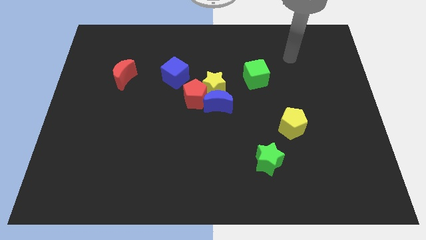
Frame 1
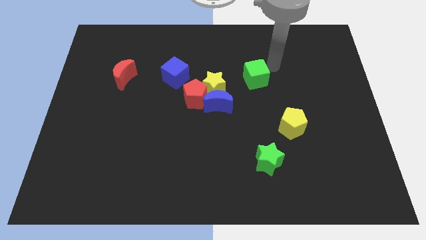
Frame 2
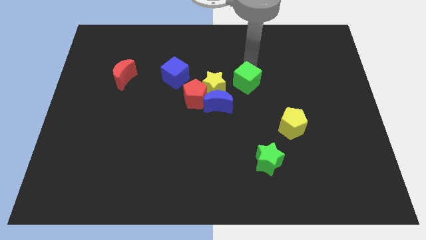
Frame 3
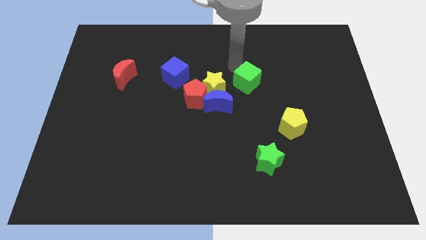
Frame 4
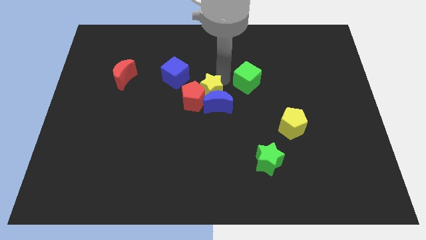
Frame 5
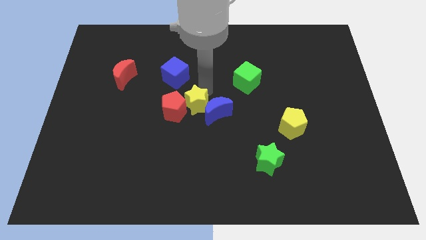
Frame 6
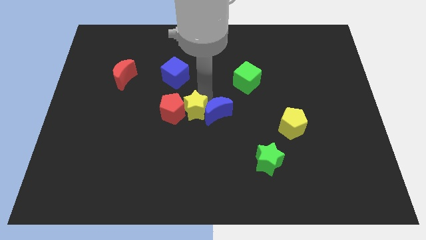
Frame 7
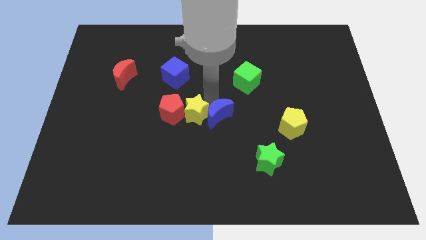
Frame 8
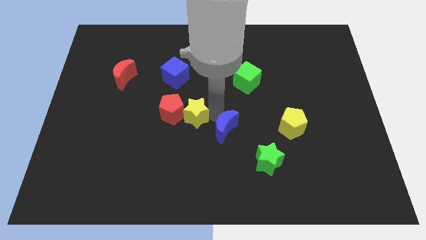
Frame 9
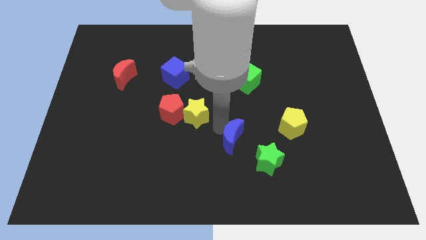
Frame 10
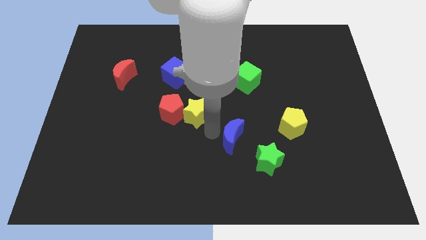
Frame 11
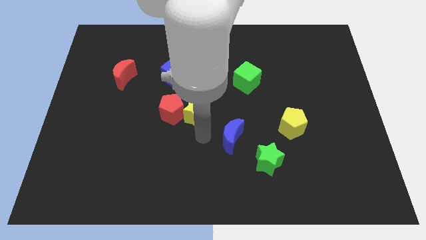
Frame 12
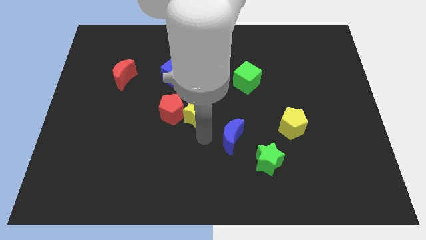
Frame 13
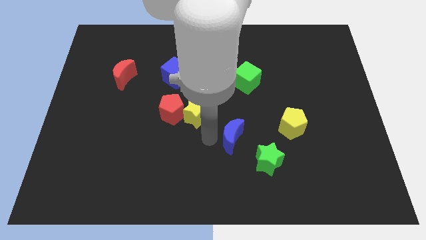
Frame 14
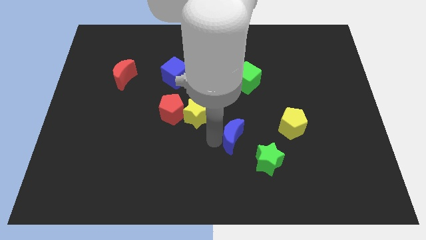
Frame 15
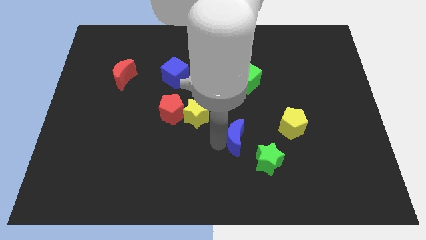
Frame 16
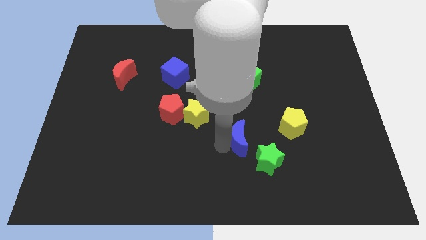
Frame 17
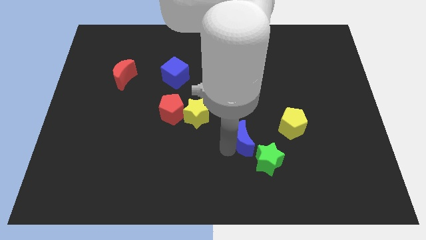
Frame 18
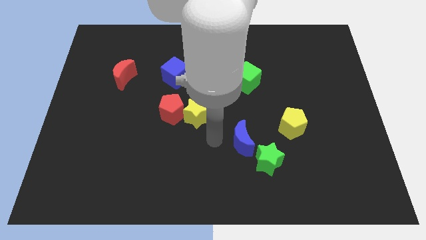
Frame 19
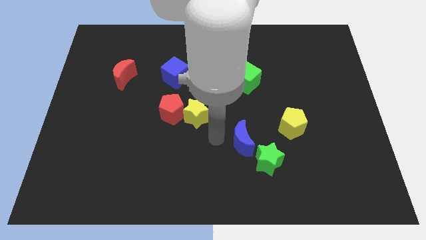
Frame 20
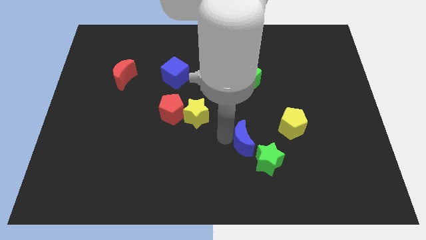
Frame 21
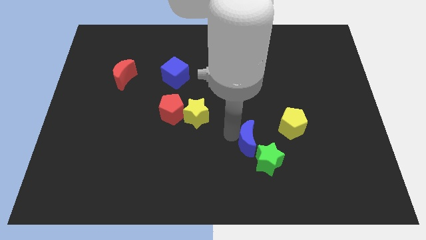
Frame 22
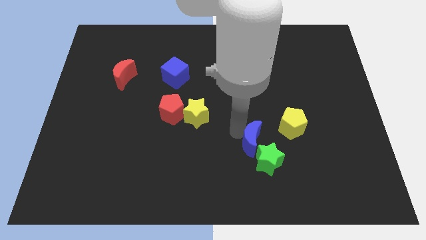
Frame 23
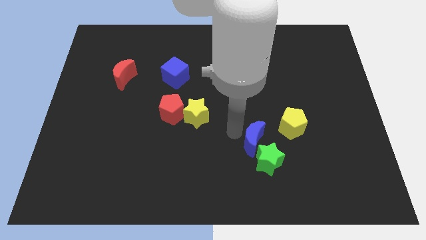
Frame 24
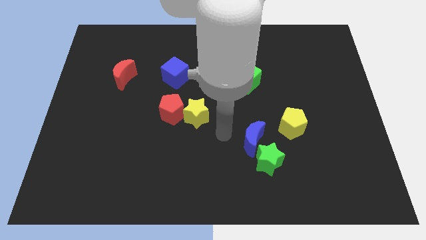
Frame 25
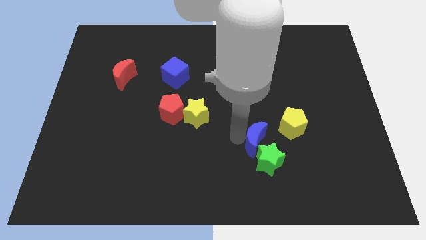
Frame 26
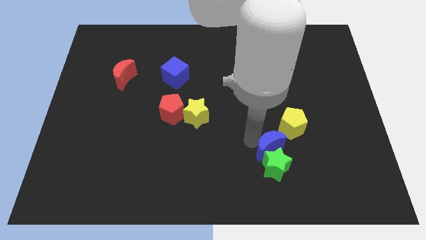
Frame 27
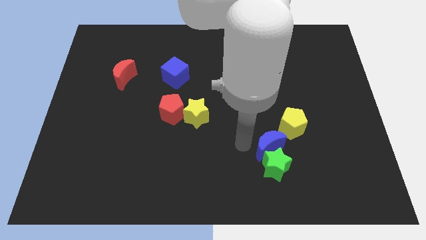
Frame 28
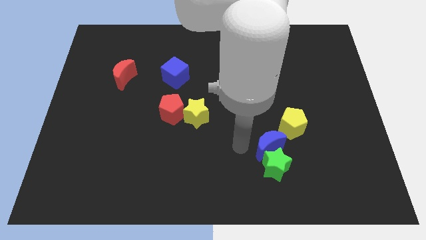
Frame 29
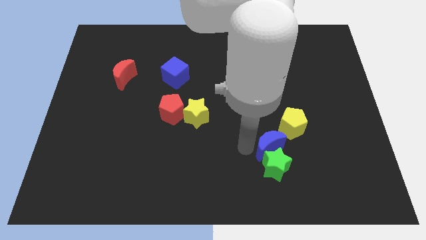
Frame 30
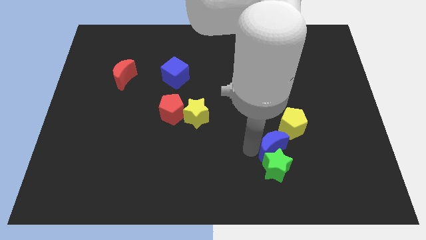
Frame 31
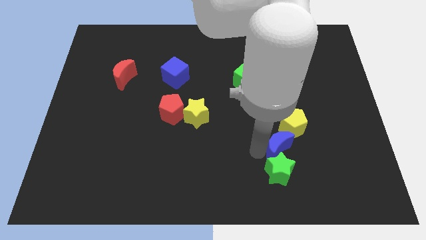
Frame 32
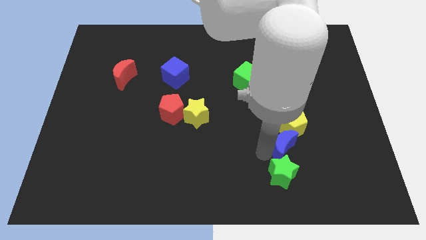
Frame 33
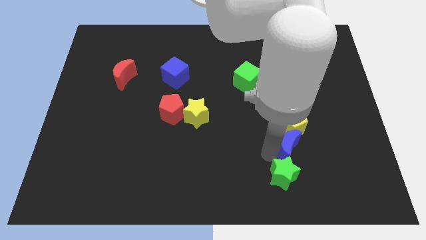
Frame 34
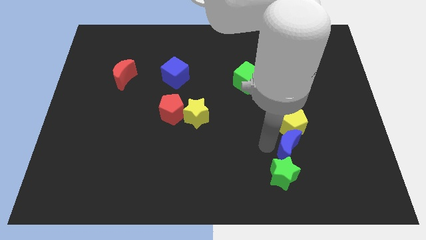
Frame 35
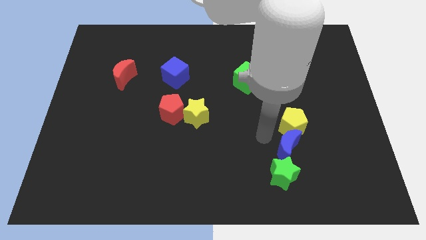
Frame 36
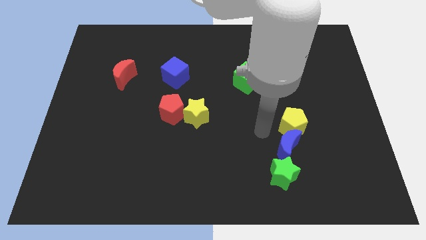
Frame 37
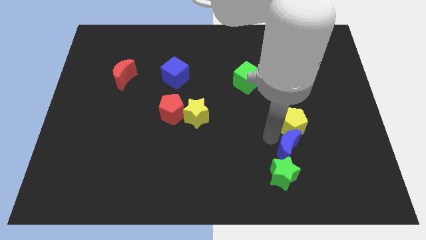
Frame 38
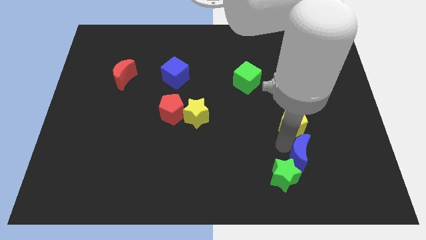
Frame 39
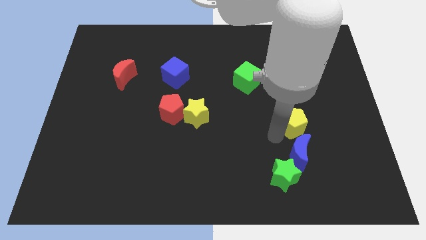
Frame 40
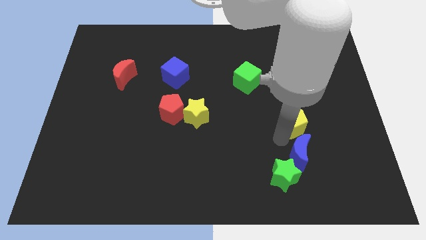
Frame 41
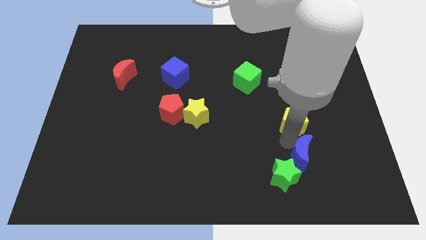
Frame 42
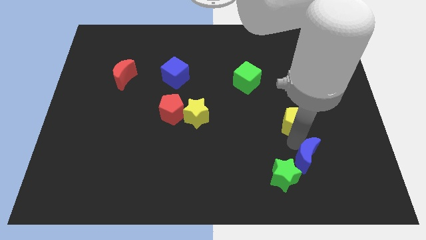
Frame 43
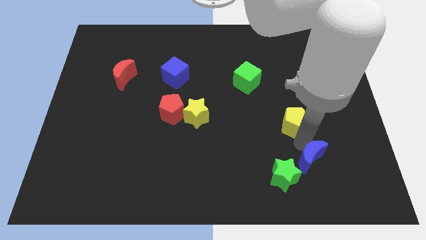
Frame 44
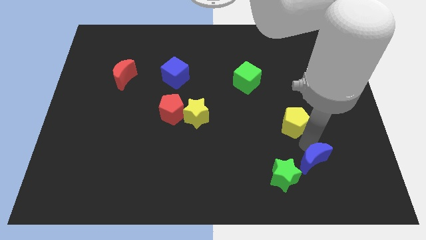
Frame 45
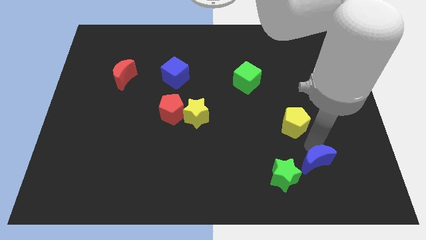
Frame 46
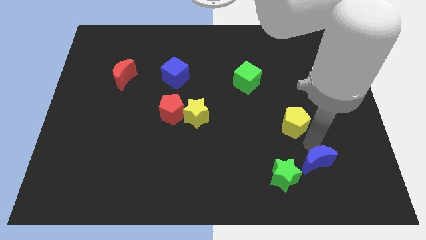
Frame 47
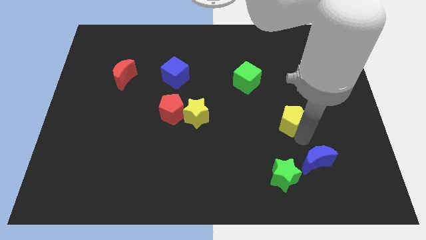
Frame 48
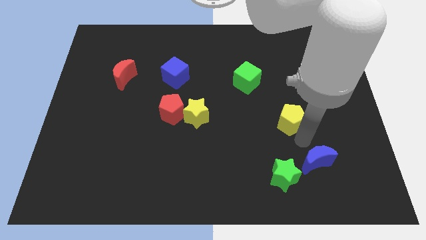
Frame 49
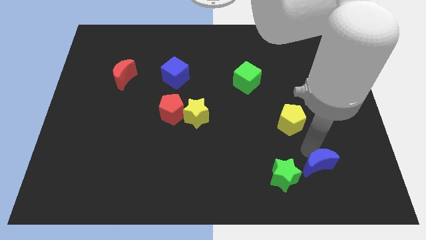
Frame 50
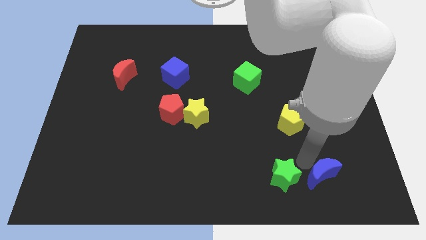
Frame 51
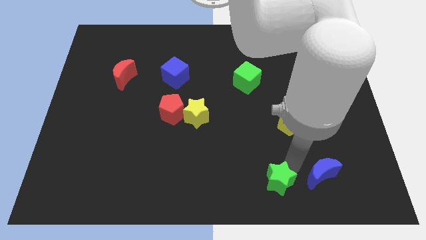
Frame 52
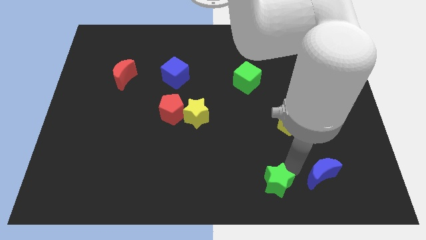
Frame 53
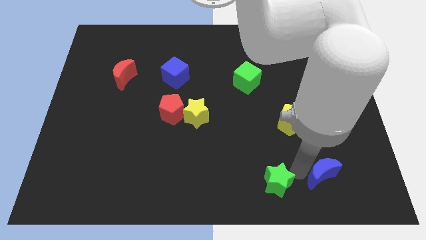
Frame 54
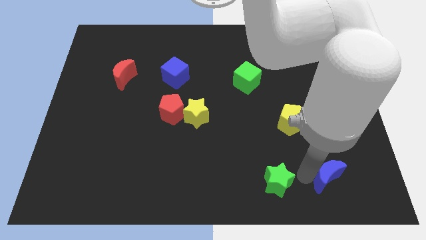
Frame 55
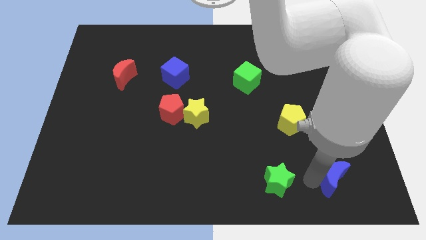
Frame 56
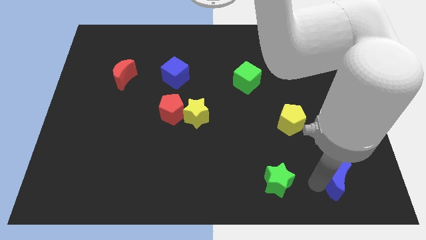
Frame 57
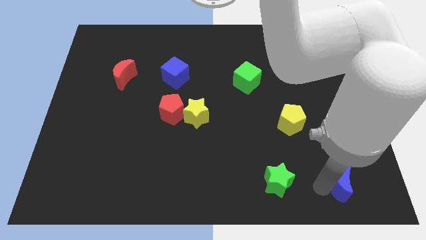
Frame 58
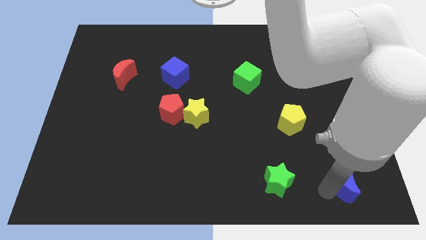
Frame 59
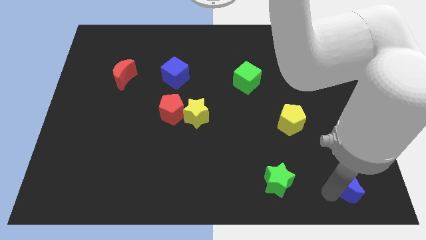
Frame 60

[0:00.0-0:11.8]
push the blue moon to the bottom right corner
